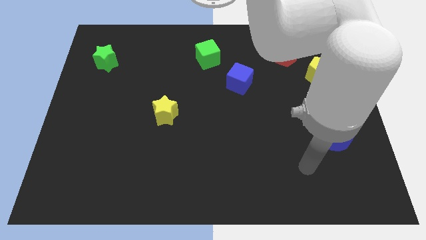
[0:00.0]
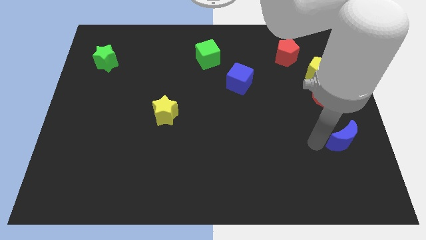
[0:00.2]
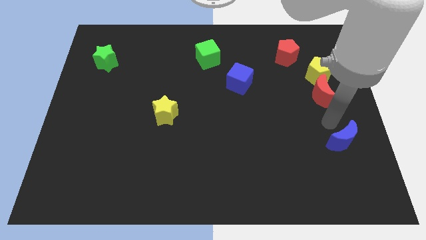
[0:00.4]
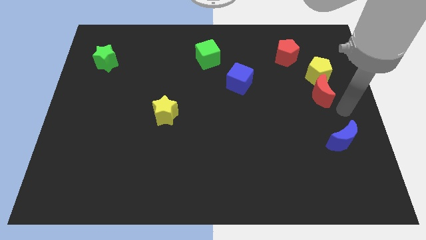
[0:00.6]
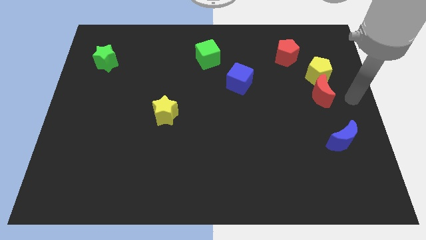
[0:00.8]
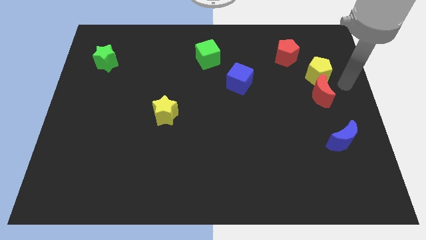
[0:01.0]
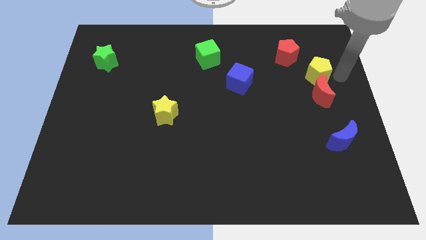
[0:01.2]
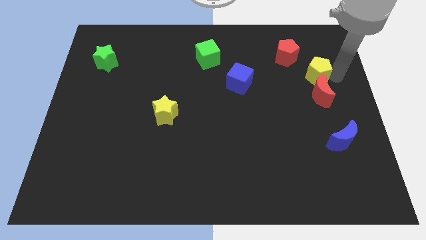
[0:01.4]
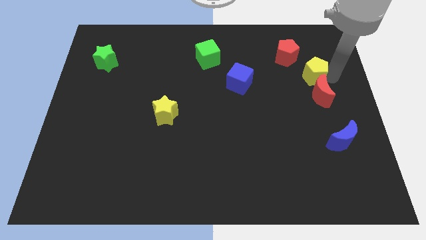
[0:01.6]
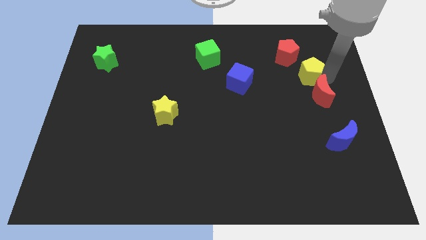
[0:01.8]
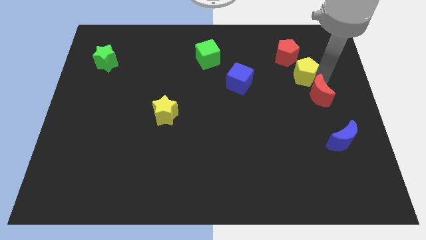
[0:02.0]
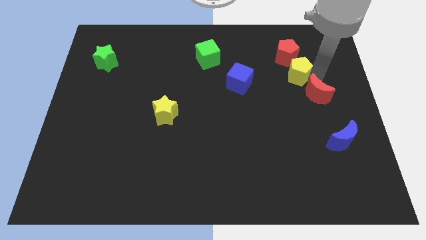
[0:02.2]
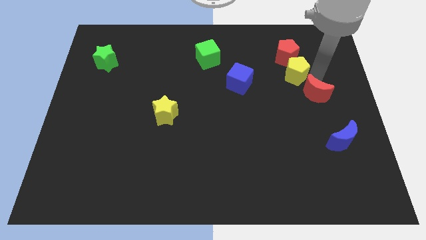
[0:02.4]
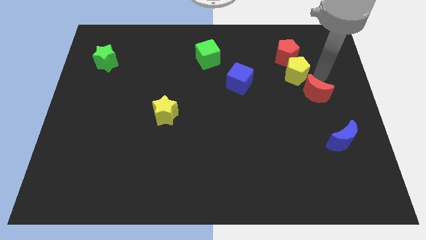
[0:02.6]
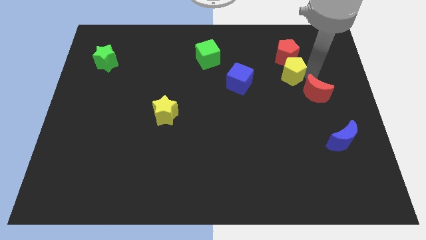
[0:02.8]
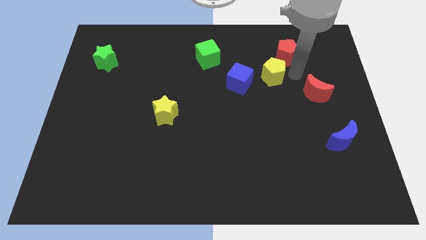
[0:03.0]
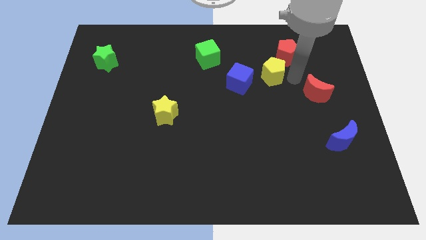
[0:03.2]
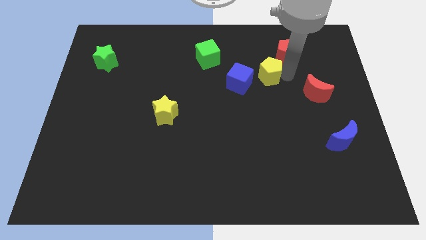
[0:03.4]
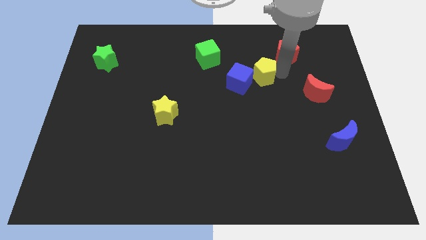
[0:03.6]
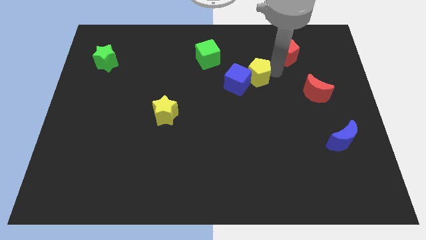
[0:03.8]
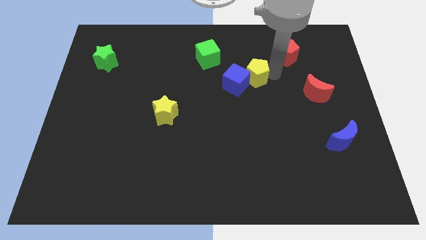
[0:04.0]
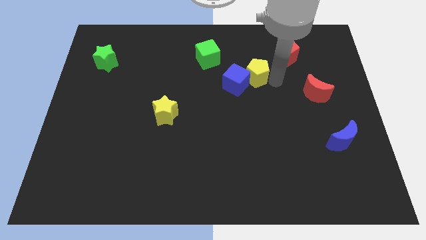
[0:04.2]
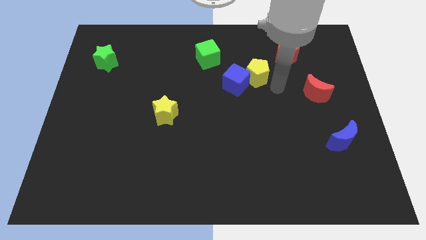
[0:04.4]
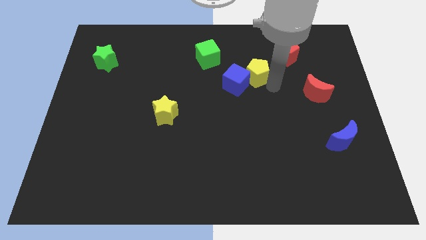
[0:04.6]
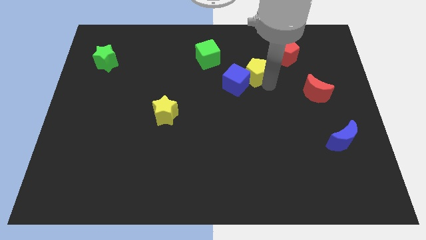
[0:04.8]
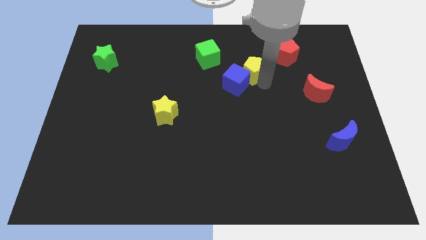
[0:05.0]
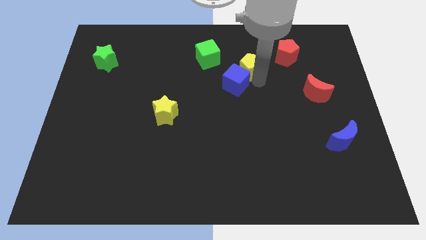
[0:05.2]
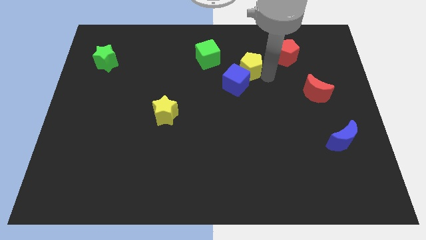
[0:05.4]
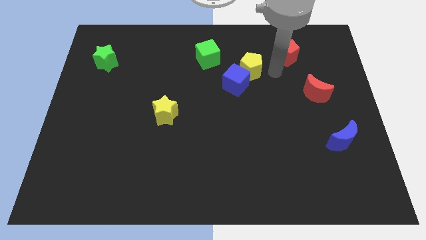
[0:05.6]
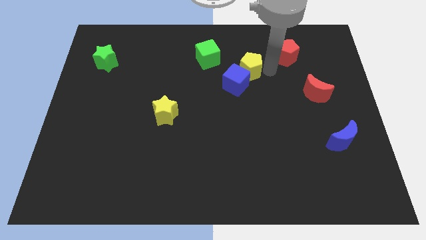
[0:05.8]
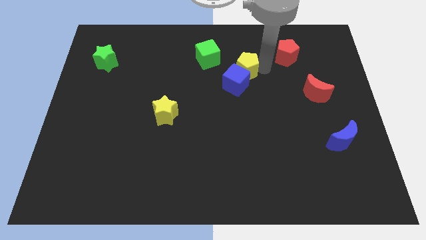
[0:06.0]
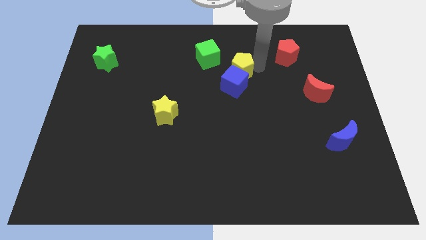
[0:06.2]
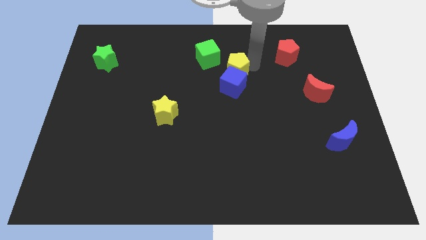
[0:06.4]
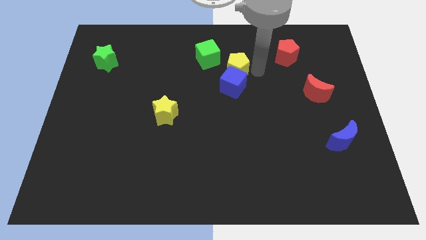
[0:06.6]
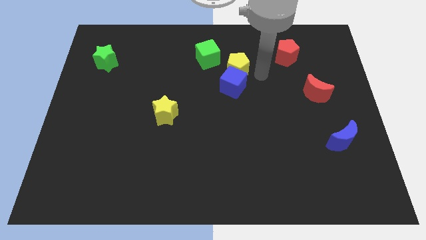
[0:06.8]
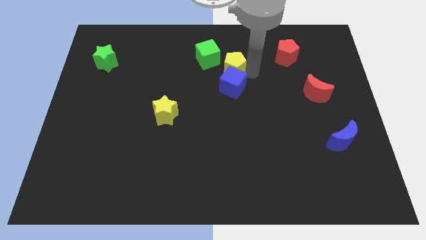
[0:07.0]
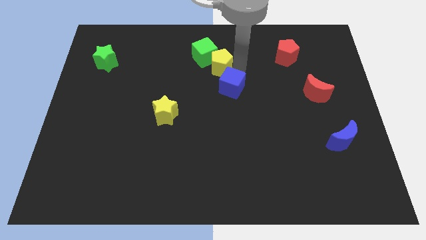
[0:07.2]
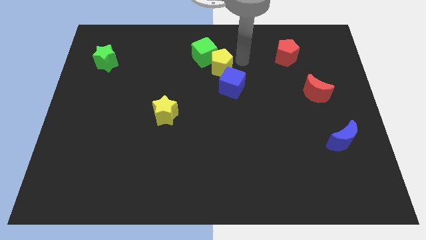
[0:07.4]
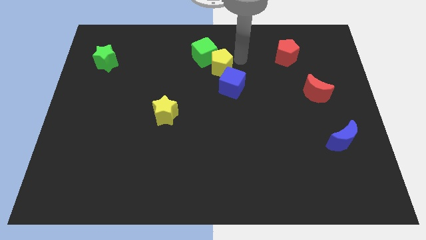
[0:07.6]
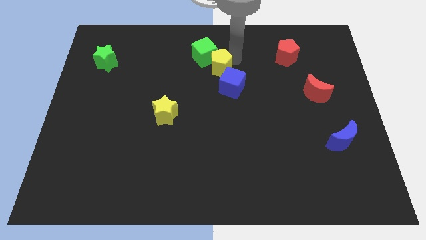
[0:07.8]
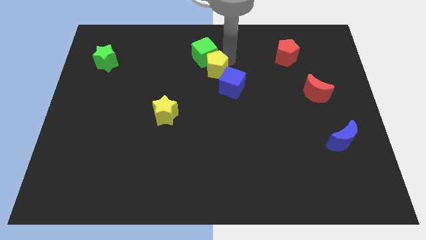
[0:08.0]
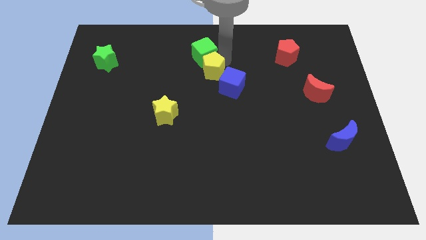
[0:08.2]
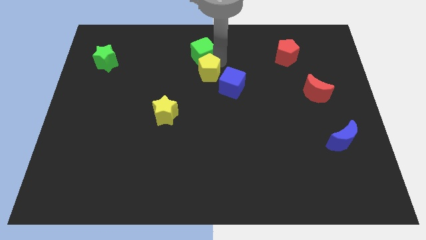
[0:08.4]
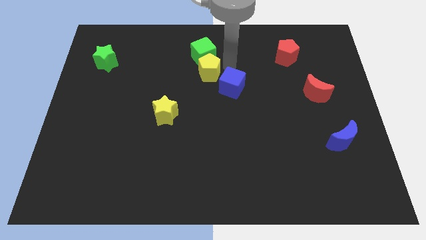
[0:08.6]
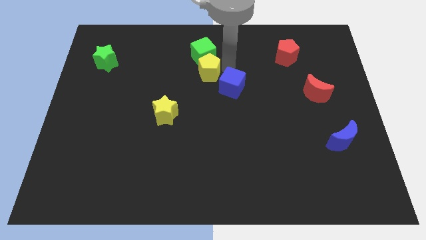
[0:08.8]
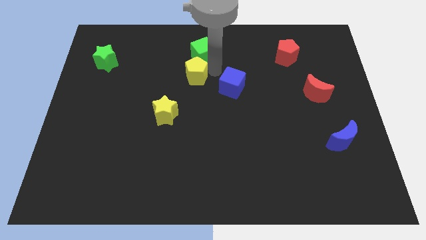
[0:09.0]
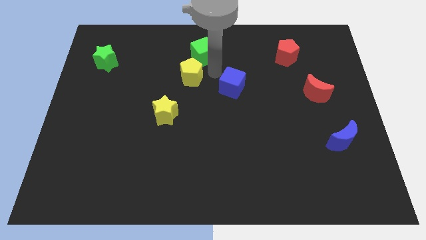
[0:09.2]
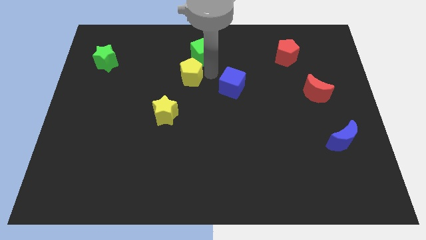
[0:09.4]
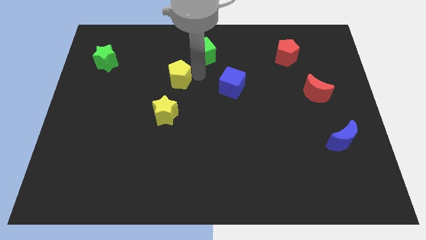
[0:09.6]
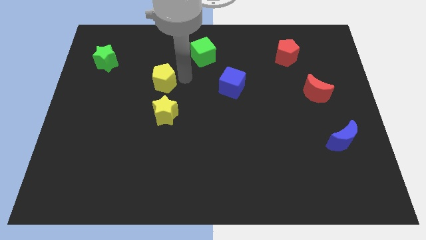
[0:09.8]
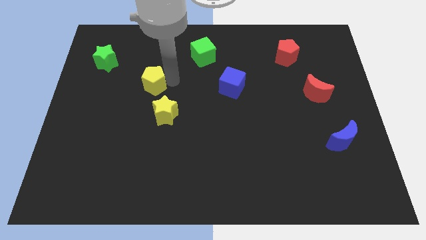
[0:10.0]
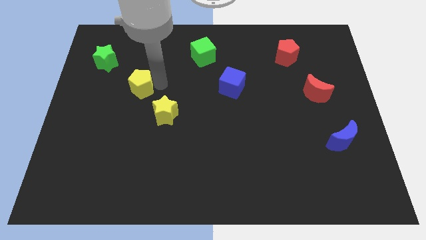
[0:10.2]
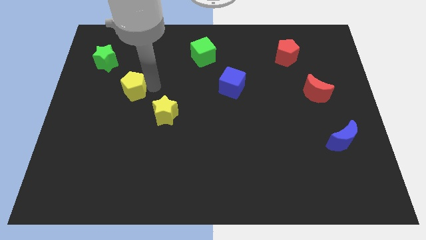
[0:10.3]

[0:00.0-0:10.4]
push the yellow pentagon diagonally down and to the right of the green star

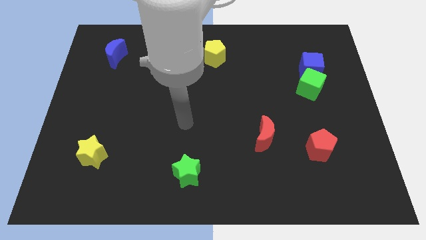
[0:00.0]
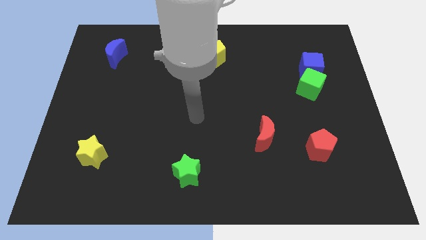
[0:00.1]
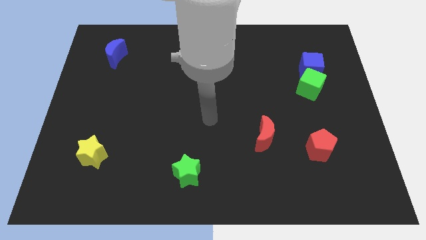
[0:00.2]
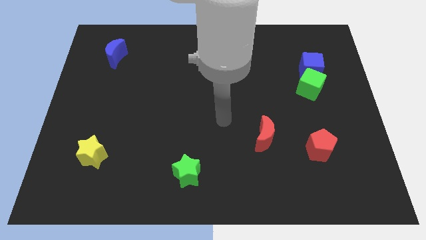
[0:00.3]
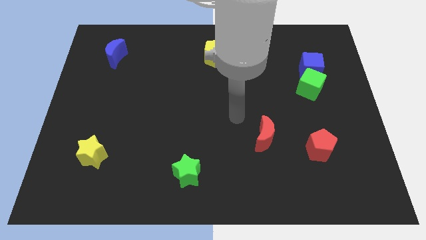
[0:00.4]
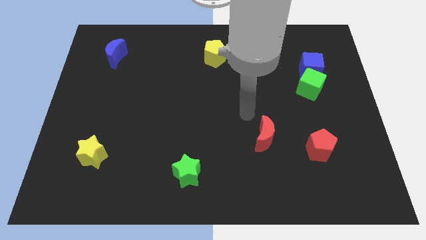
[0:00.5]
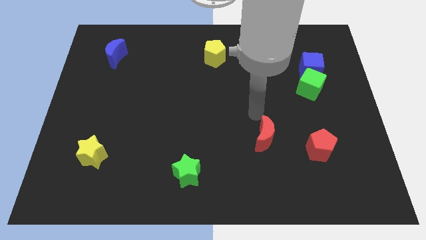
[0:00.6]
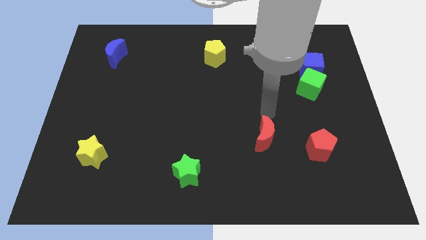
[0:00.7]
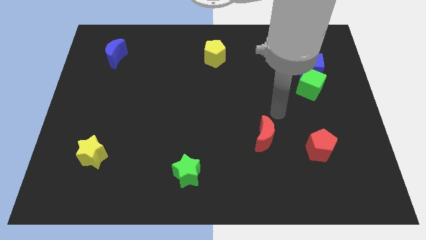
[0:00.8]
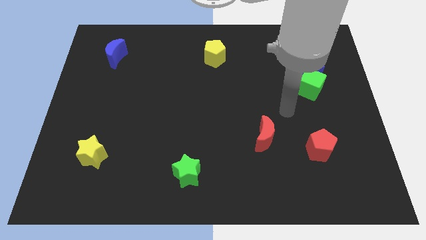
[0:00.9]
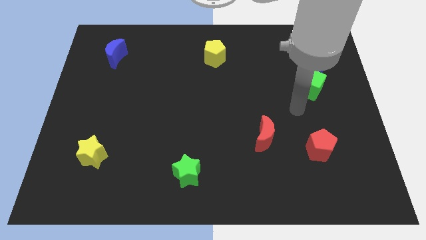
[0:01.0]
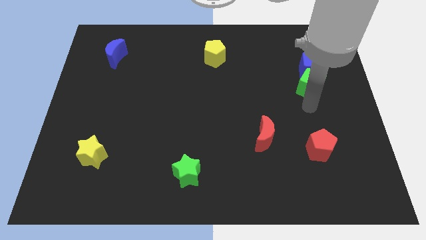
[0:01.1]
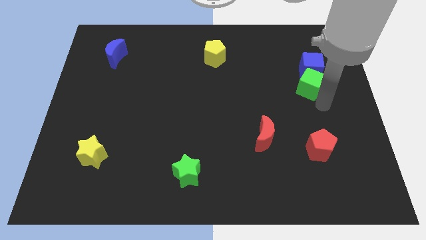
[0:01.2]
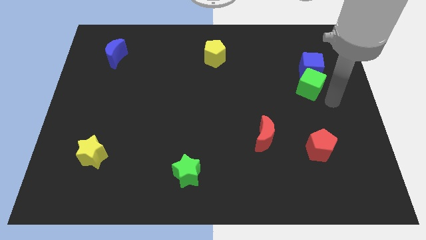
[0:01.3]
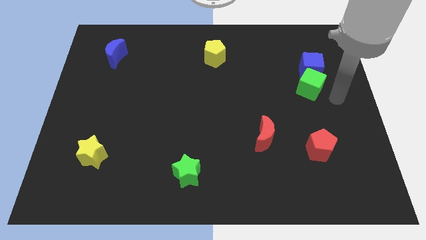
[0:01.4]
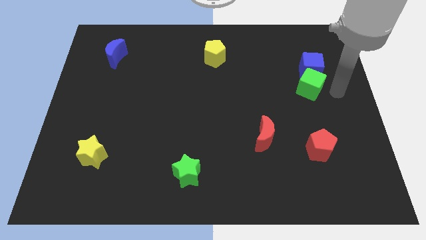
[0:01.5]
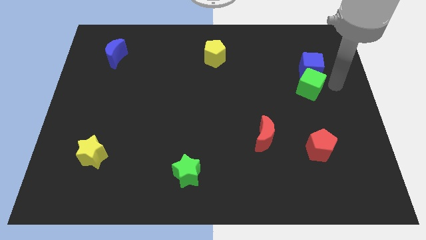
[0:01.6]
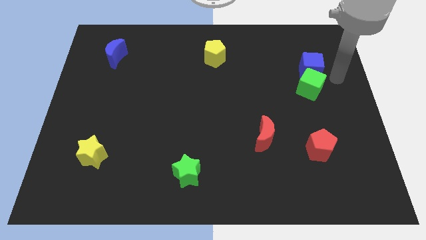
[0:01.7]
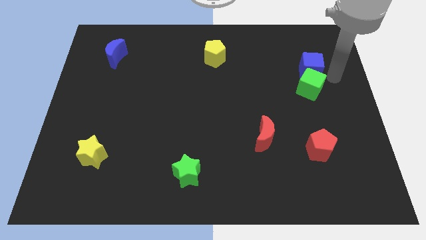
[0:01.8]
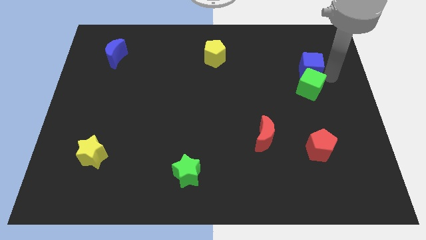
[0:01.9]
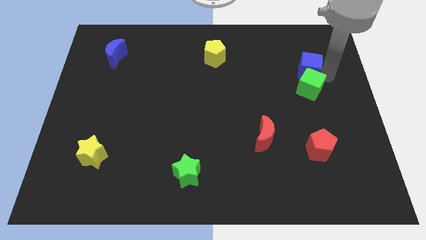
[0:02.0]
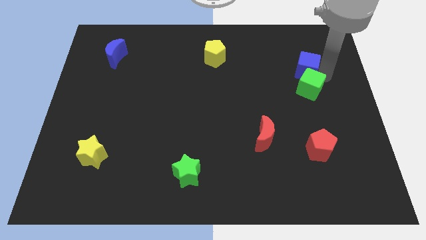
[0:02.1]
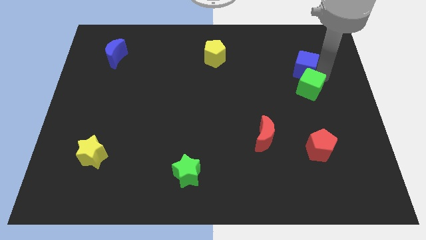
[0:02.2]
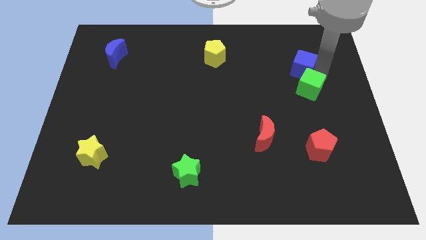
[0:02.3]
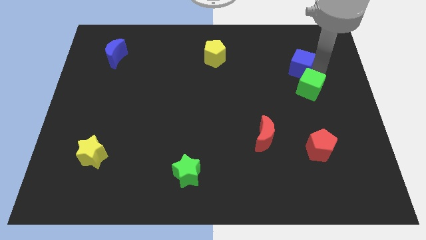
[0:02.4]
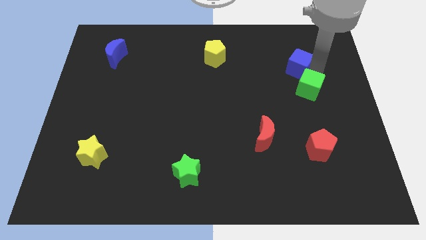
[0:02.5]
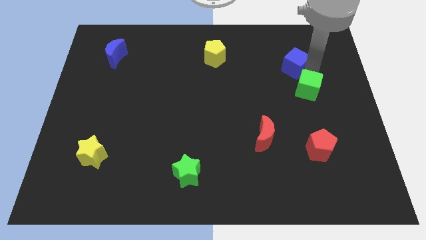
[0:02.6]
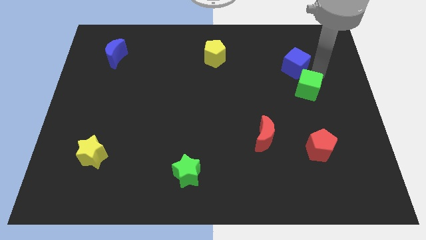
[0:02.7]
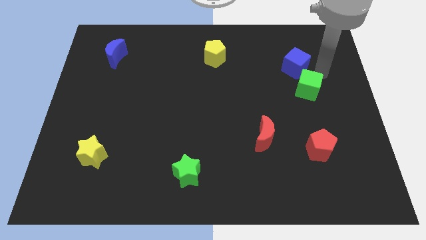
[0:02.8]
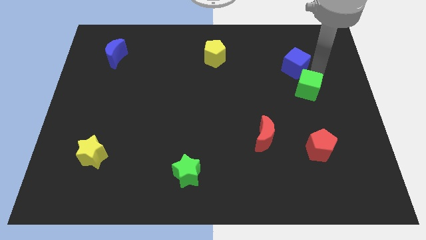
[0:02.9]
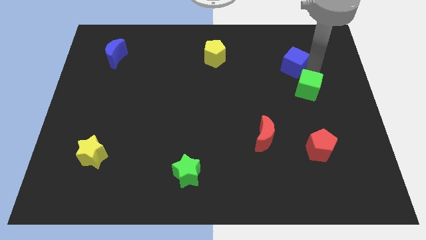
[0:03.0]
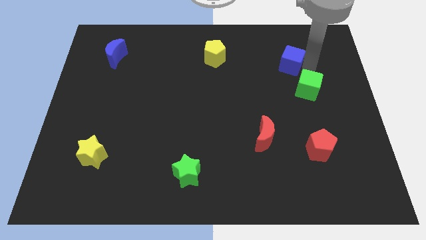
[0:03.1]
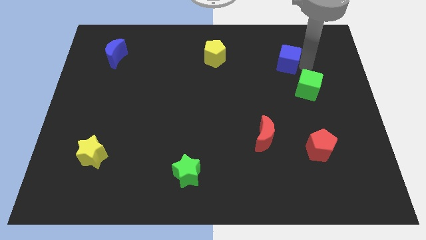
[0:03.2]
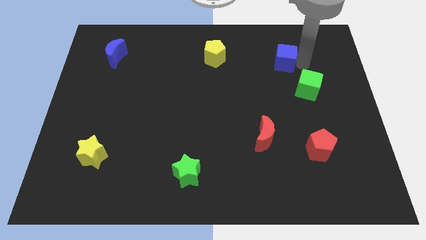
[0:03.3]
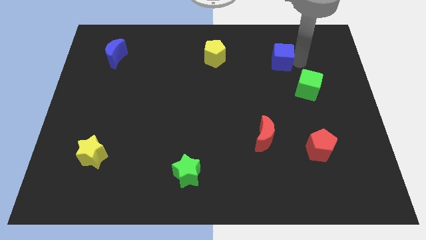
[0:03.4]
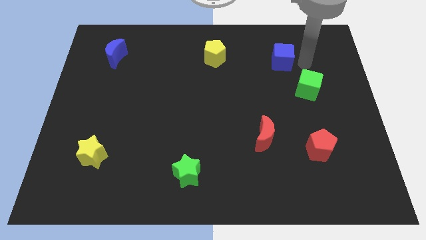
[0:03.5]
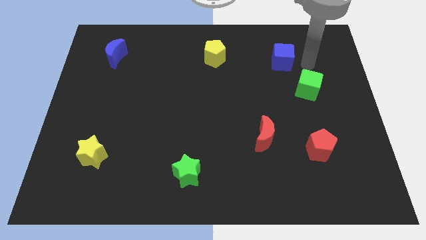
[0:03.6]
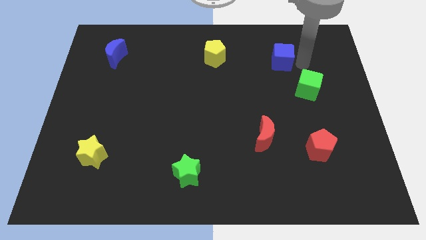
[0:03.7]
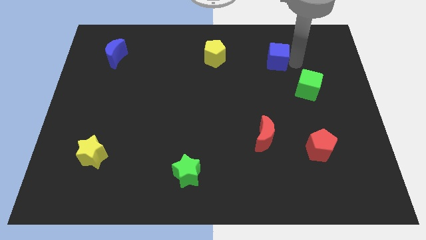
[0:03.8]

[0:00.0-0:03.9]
move the blue cube right of the yellow pentagon
